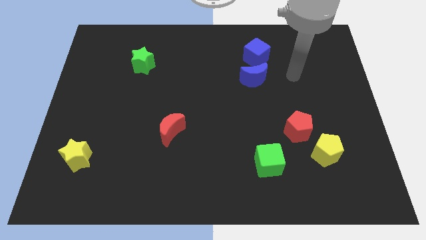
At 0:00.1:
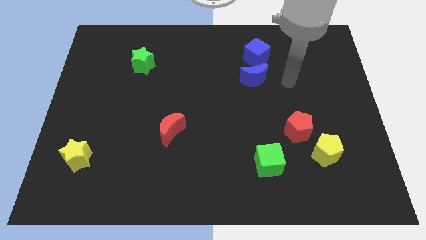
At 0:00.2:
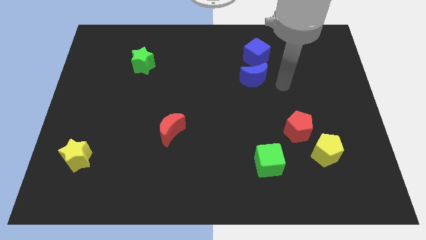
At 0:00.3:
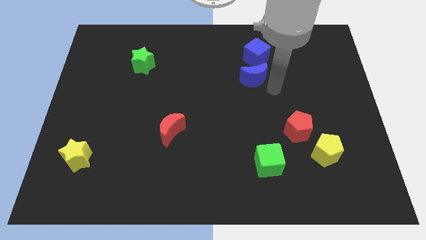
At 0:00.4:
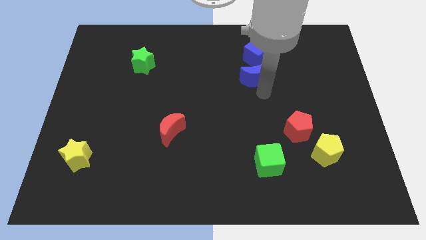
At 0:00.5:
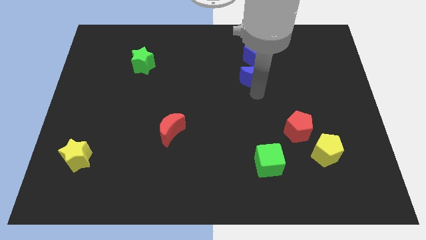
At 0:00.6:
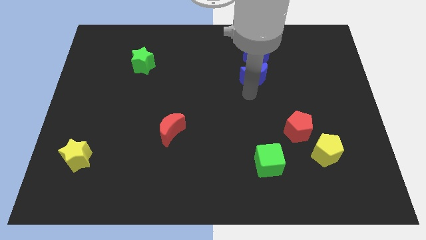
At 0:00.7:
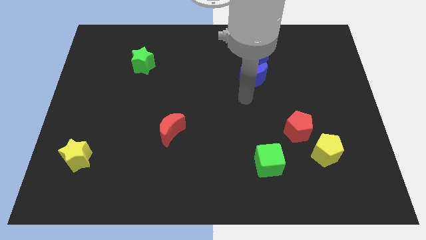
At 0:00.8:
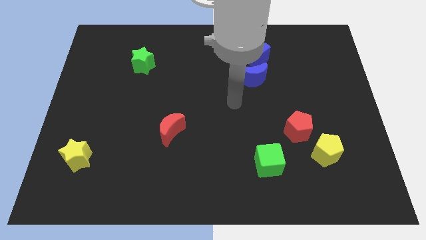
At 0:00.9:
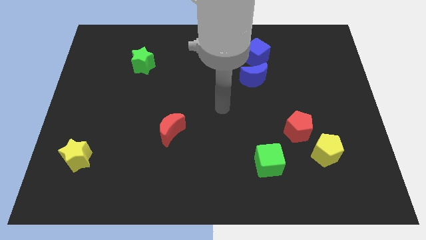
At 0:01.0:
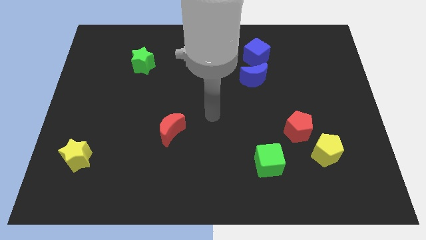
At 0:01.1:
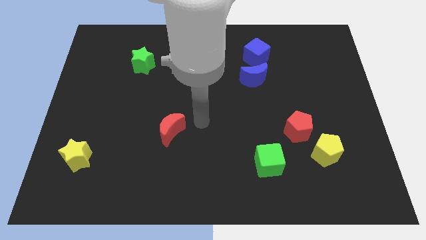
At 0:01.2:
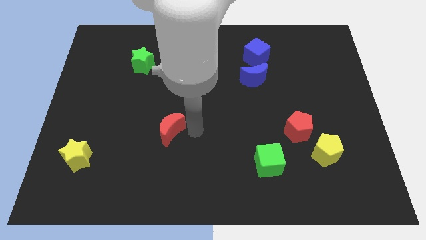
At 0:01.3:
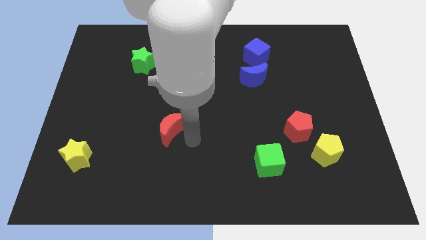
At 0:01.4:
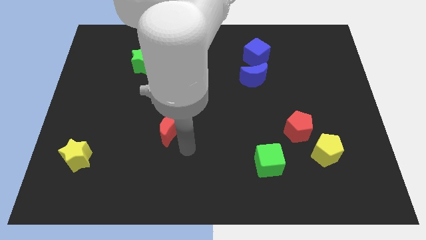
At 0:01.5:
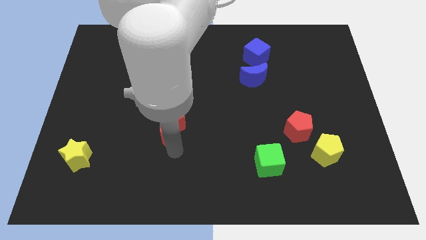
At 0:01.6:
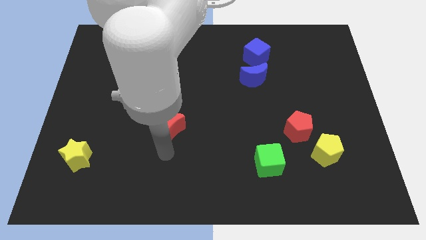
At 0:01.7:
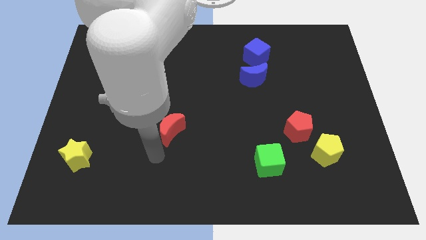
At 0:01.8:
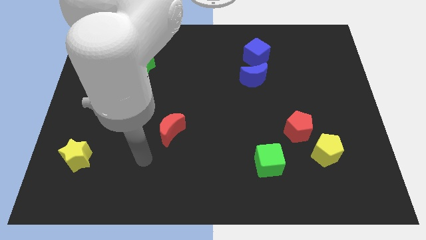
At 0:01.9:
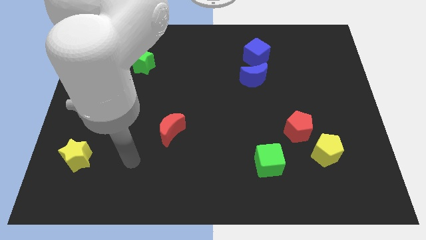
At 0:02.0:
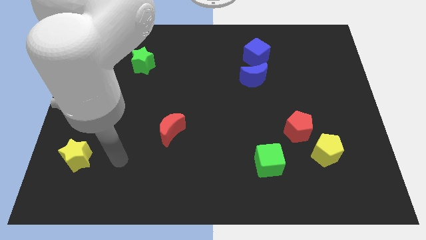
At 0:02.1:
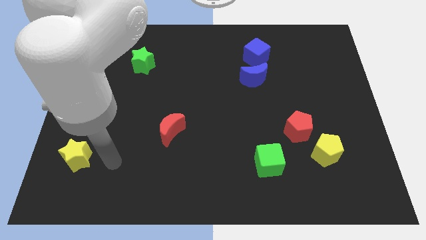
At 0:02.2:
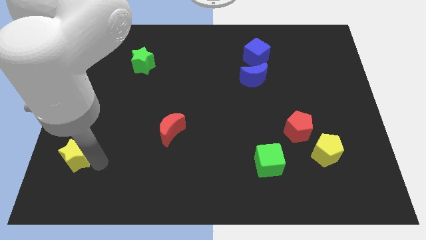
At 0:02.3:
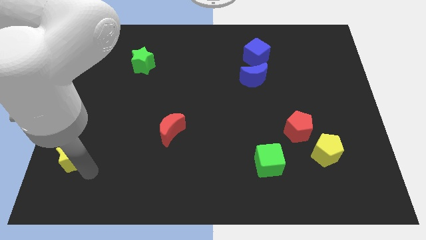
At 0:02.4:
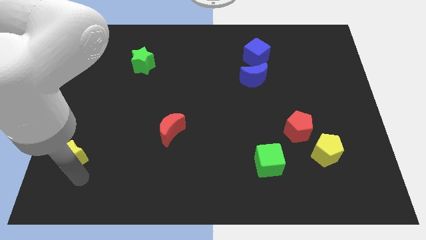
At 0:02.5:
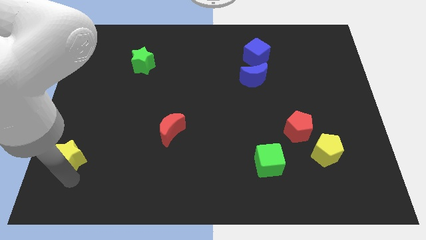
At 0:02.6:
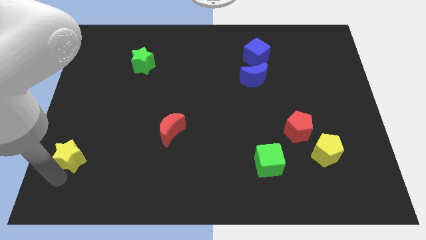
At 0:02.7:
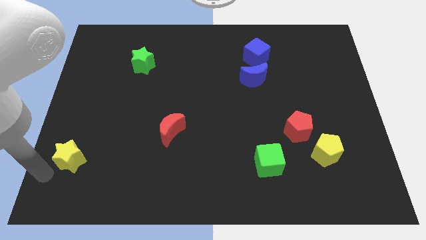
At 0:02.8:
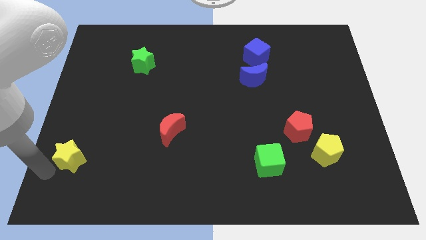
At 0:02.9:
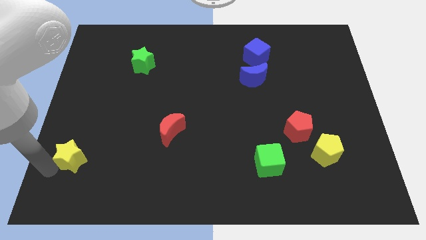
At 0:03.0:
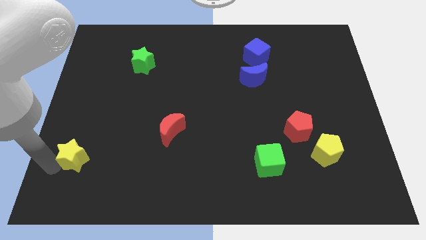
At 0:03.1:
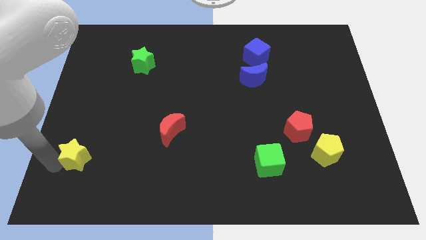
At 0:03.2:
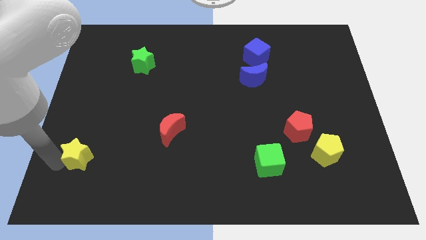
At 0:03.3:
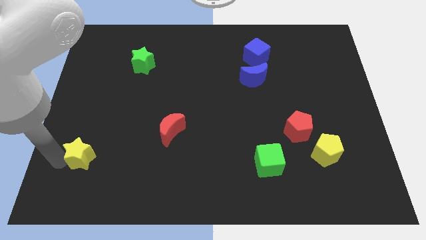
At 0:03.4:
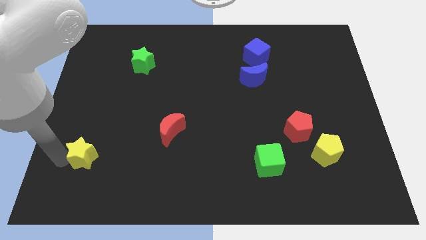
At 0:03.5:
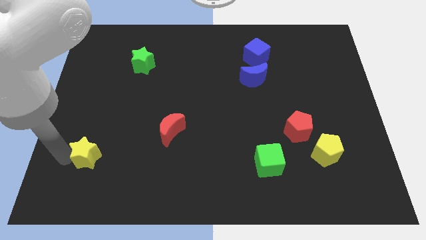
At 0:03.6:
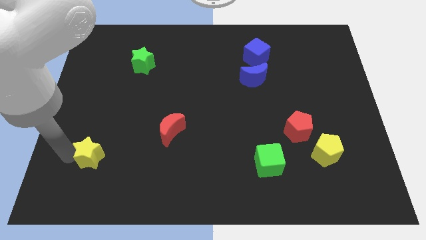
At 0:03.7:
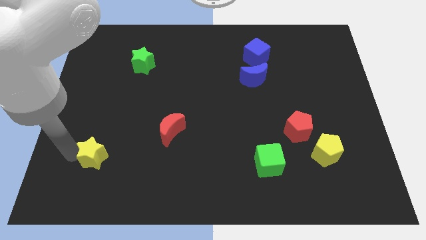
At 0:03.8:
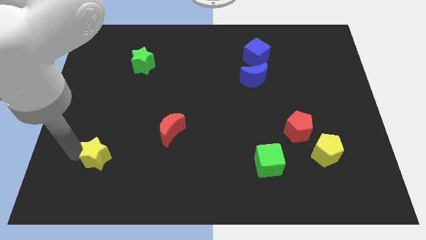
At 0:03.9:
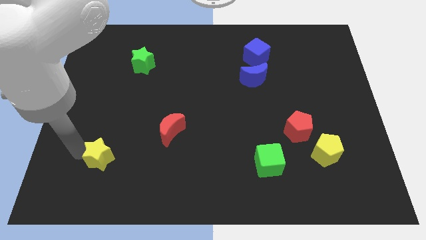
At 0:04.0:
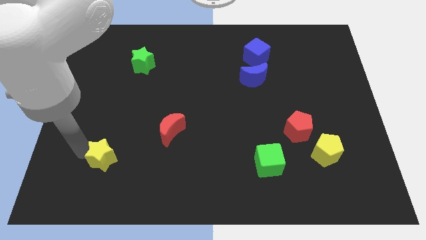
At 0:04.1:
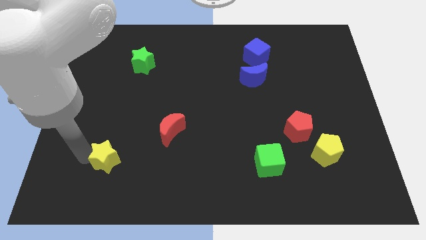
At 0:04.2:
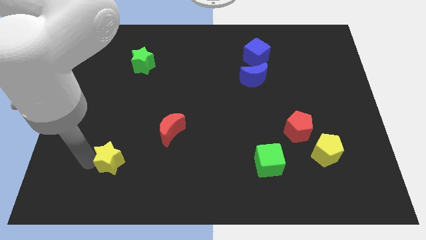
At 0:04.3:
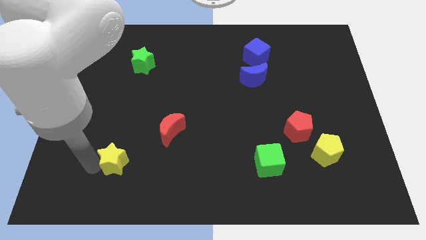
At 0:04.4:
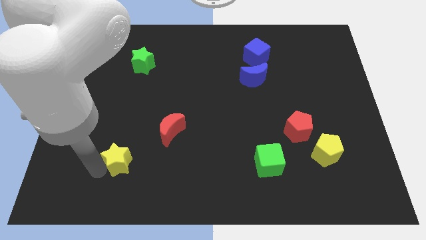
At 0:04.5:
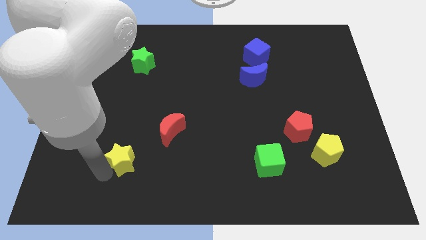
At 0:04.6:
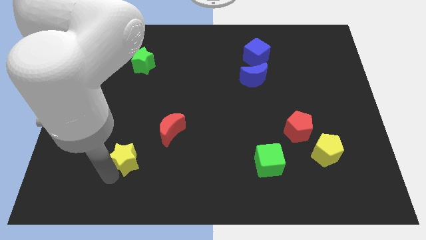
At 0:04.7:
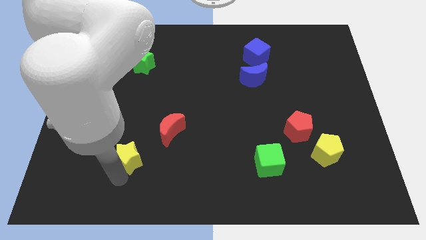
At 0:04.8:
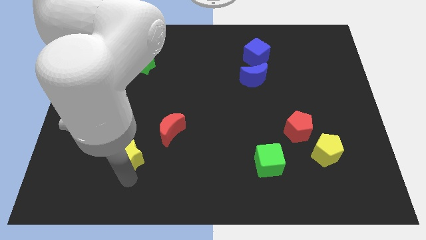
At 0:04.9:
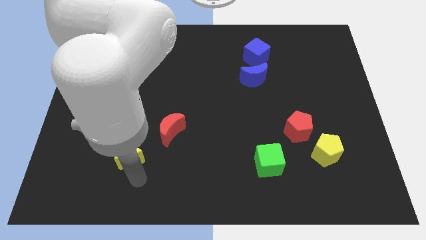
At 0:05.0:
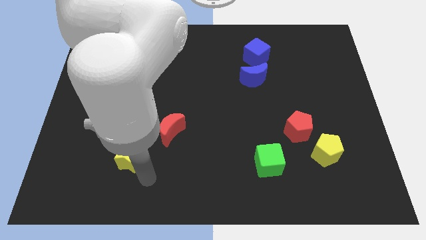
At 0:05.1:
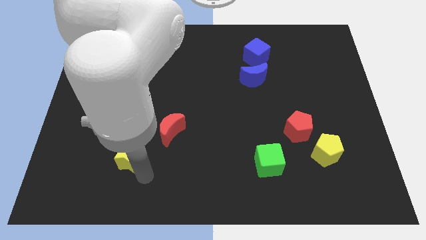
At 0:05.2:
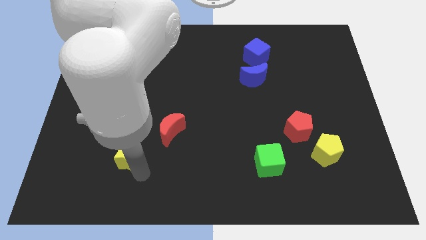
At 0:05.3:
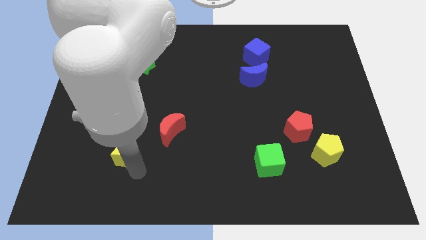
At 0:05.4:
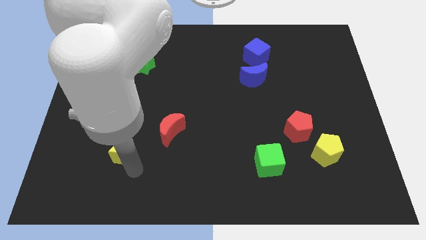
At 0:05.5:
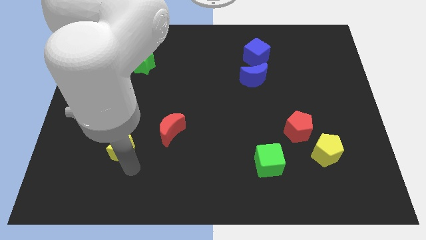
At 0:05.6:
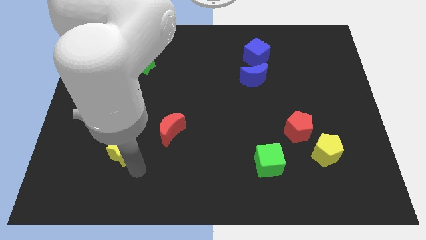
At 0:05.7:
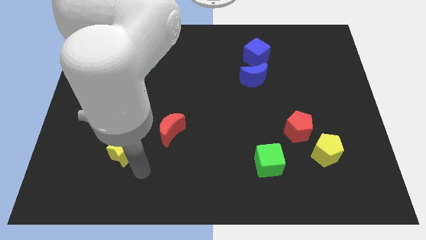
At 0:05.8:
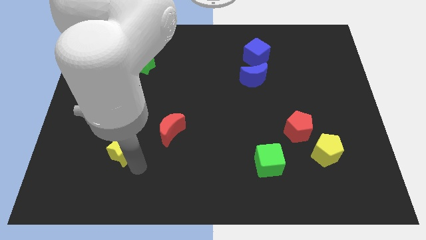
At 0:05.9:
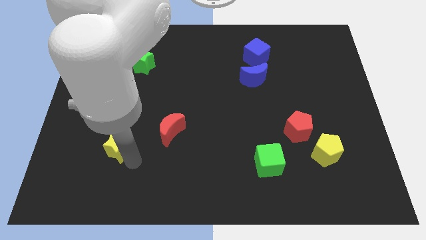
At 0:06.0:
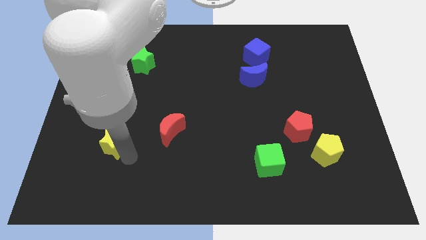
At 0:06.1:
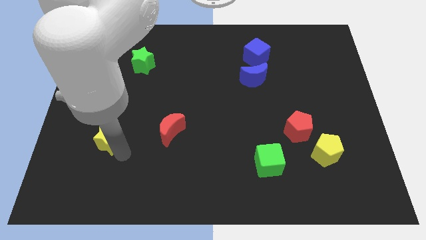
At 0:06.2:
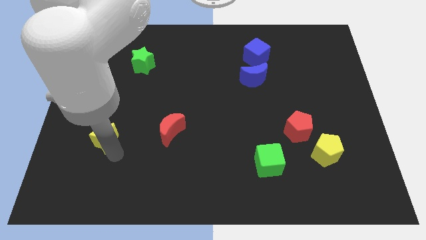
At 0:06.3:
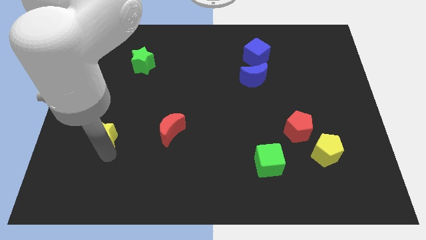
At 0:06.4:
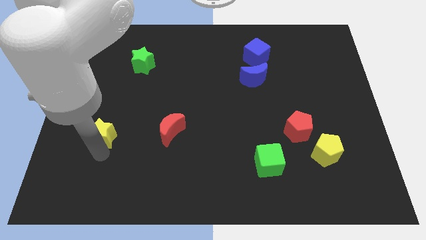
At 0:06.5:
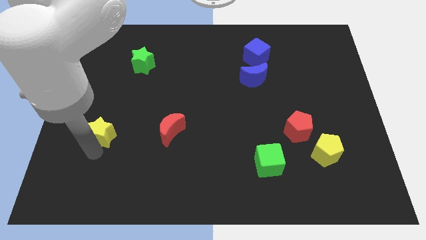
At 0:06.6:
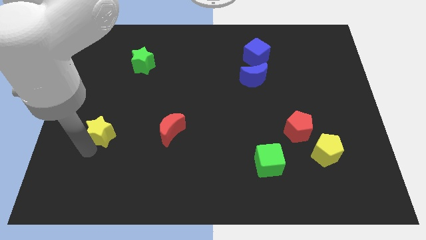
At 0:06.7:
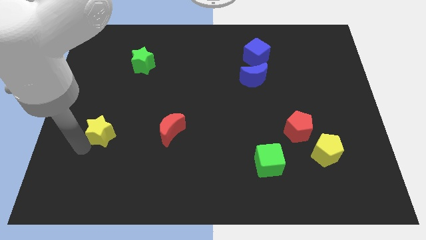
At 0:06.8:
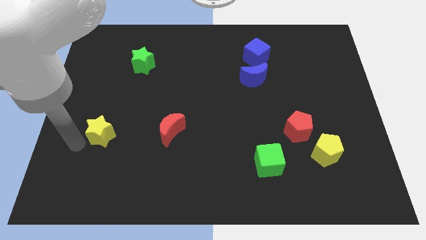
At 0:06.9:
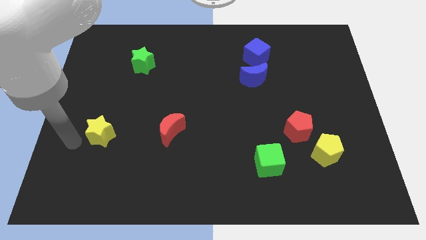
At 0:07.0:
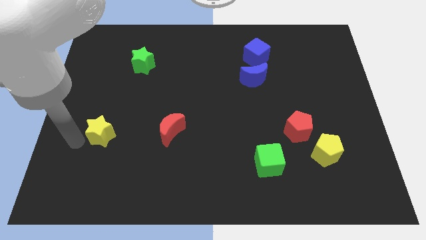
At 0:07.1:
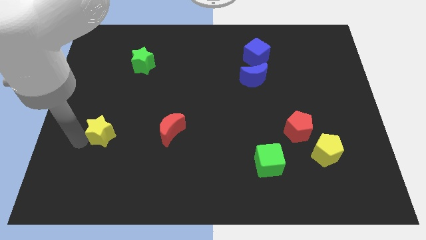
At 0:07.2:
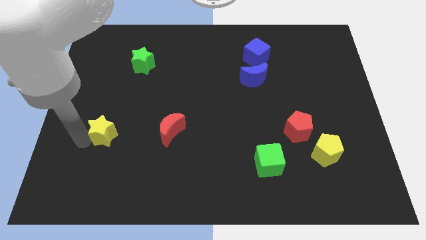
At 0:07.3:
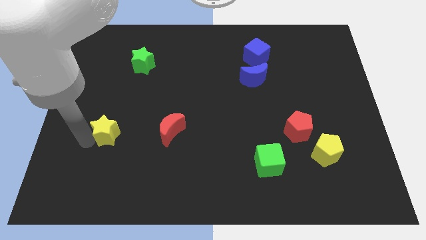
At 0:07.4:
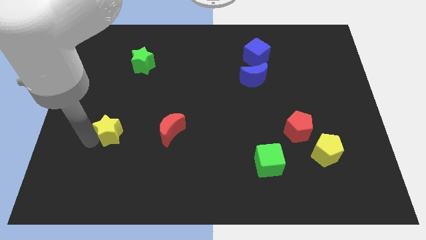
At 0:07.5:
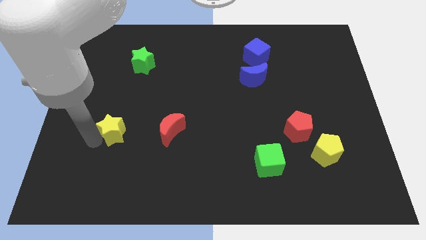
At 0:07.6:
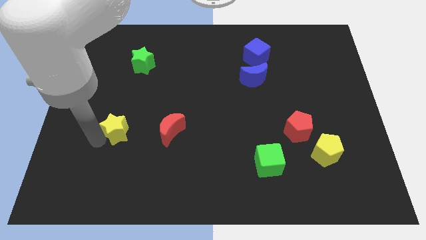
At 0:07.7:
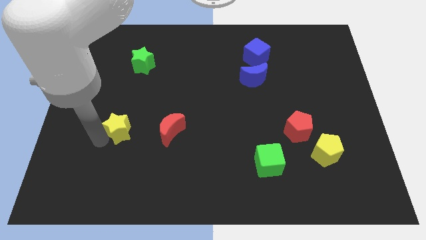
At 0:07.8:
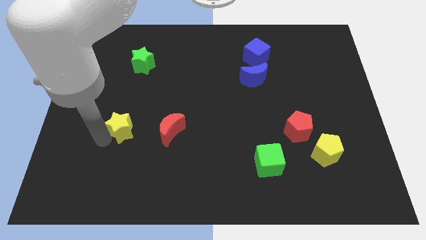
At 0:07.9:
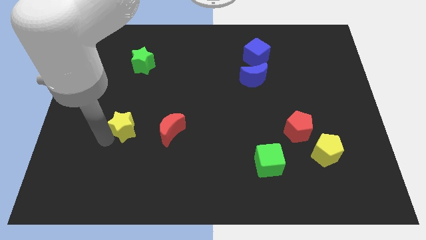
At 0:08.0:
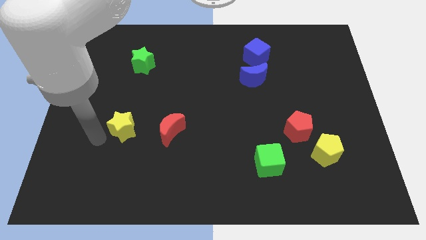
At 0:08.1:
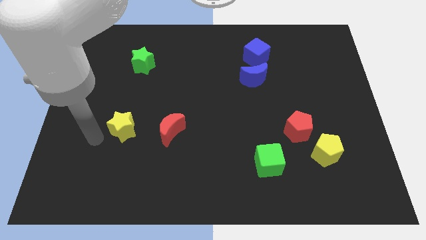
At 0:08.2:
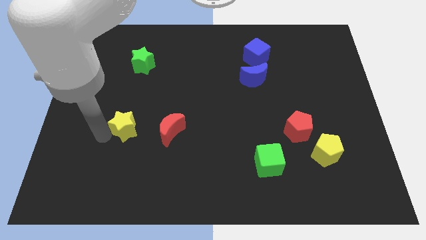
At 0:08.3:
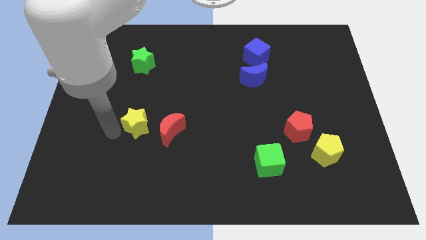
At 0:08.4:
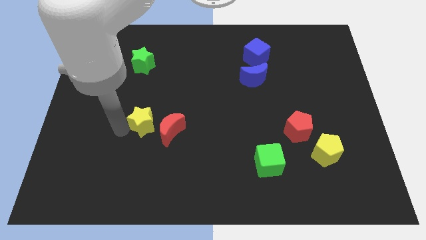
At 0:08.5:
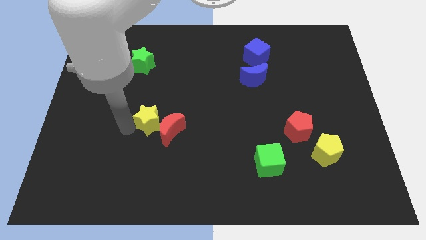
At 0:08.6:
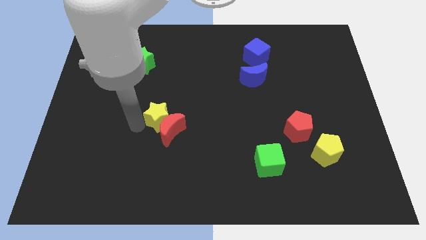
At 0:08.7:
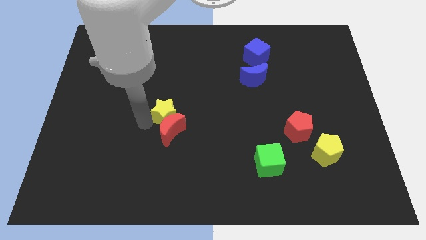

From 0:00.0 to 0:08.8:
push the yellow star to the middle of the board
